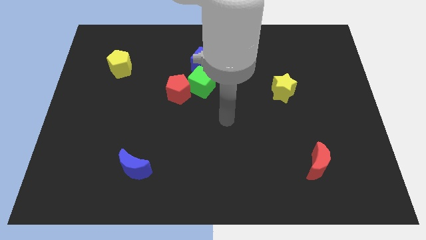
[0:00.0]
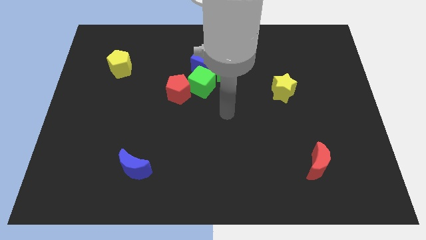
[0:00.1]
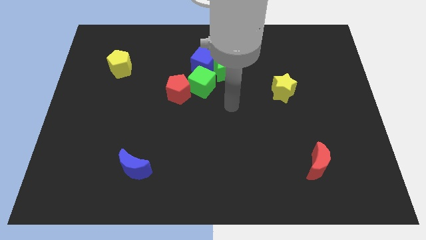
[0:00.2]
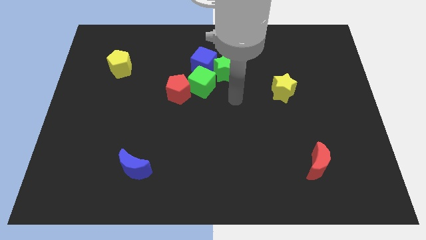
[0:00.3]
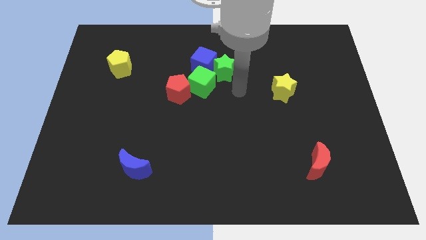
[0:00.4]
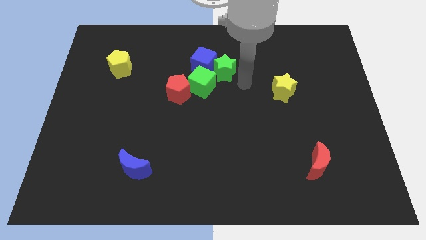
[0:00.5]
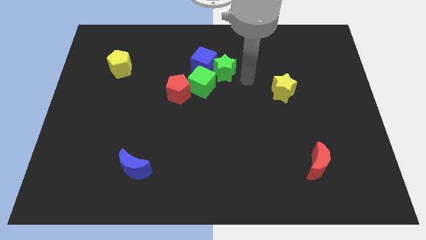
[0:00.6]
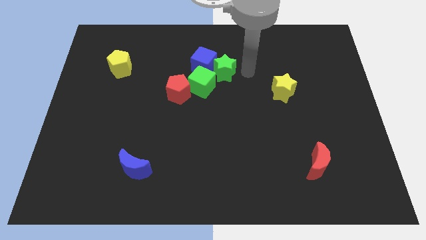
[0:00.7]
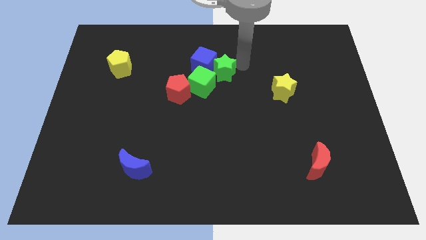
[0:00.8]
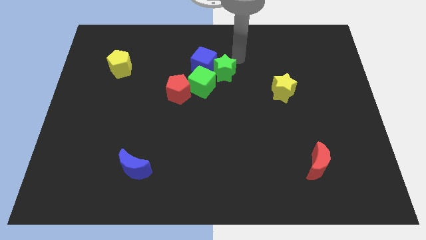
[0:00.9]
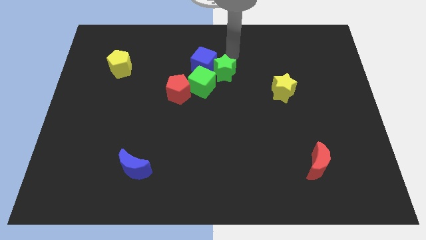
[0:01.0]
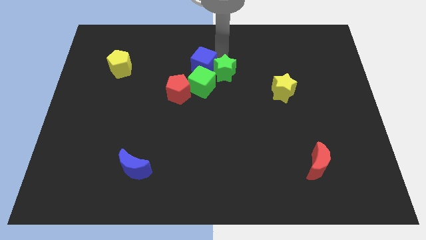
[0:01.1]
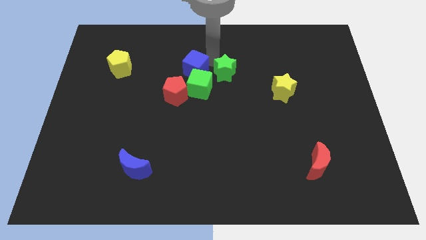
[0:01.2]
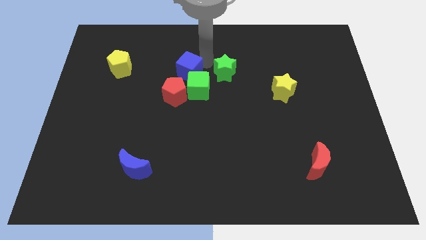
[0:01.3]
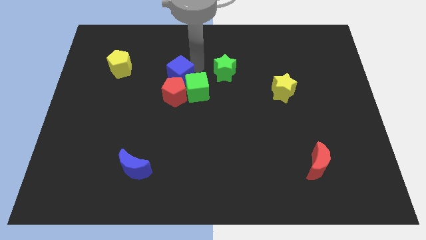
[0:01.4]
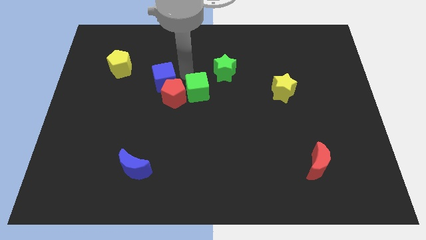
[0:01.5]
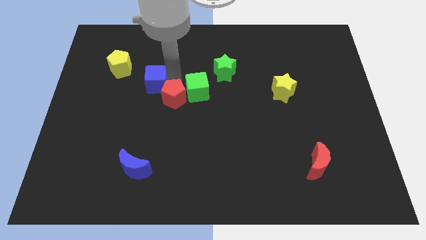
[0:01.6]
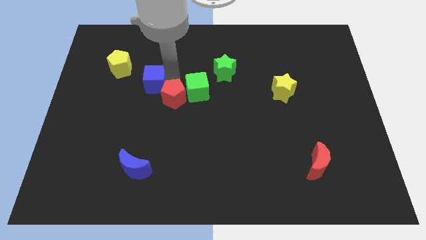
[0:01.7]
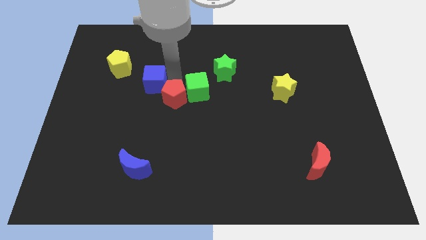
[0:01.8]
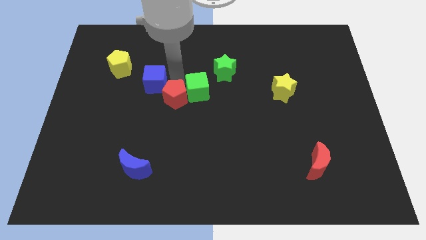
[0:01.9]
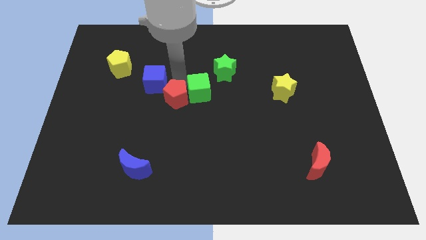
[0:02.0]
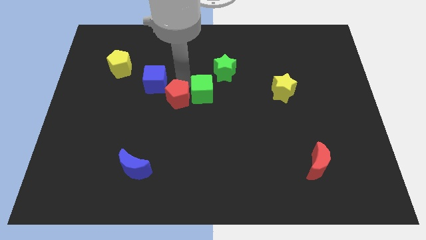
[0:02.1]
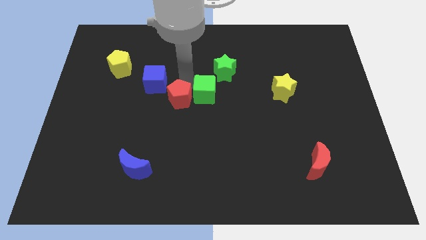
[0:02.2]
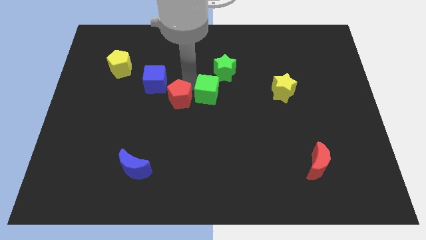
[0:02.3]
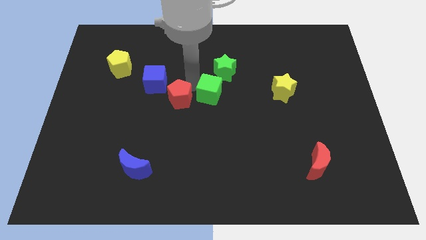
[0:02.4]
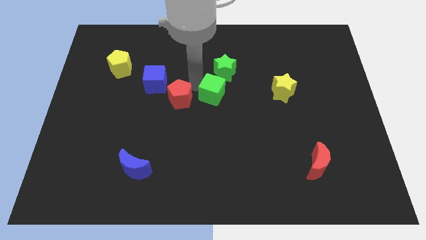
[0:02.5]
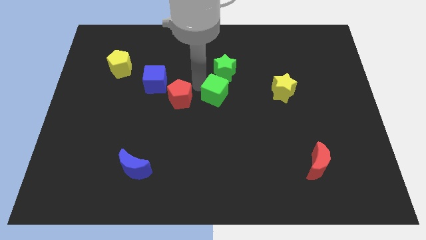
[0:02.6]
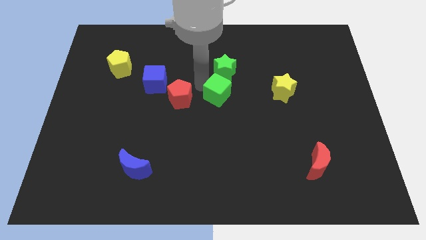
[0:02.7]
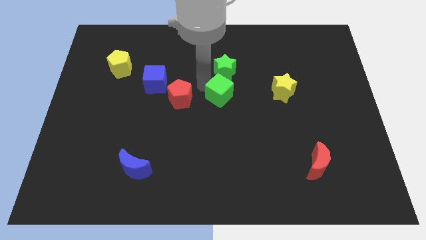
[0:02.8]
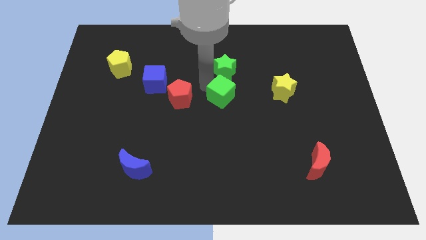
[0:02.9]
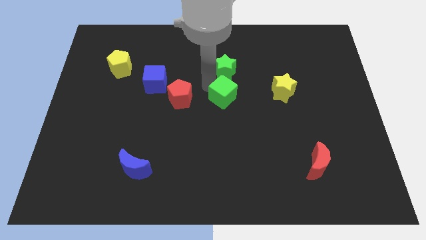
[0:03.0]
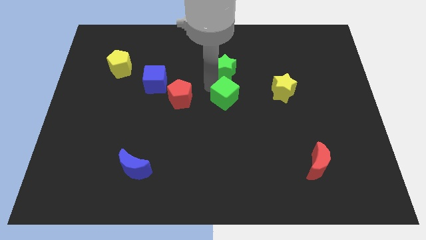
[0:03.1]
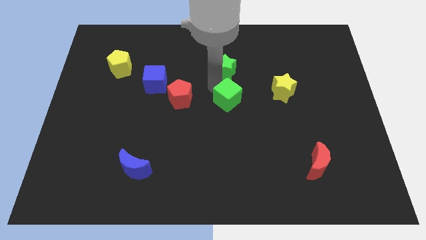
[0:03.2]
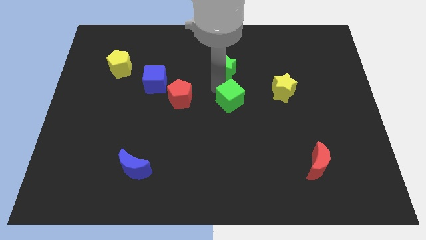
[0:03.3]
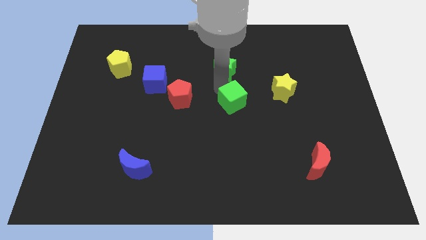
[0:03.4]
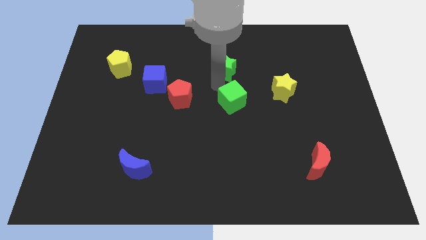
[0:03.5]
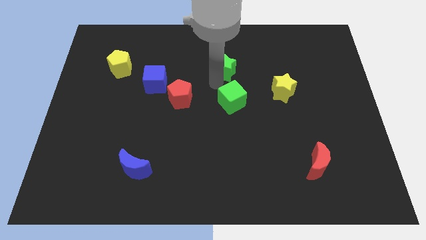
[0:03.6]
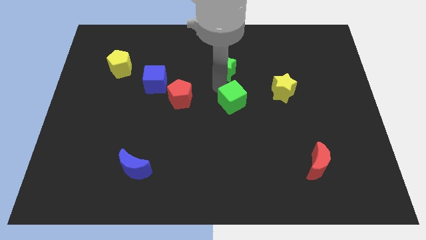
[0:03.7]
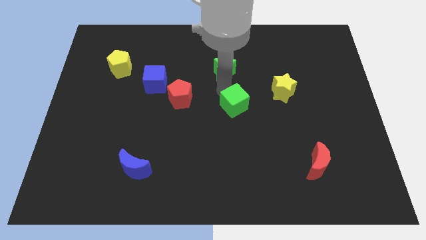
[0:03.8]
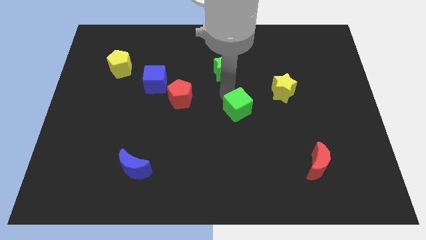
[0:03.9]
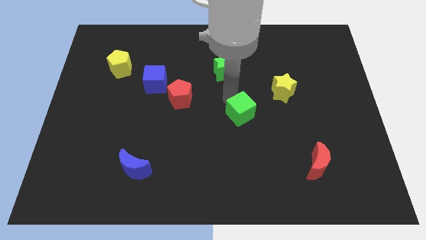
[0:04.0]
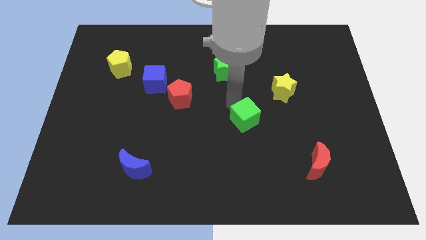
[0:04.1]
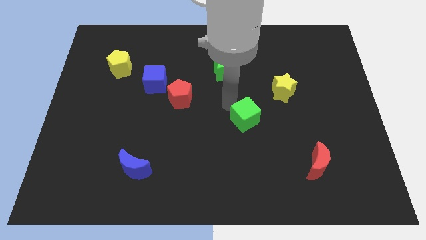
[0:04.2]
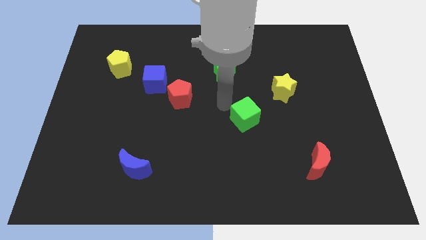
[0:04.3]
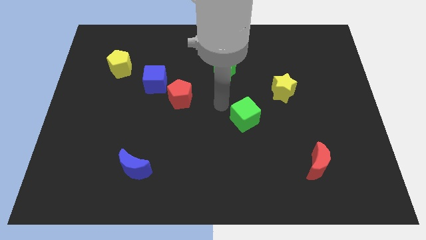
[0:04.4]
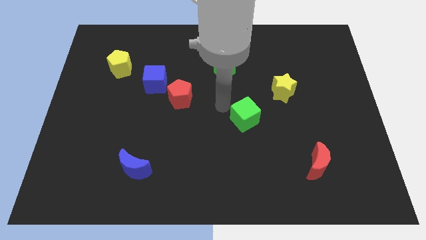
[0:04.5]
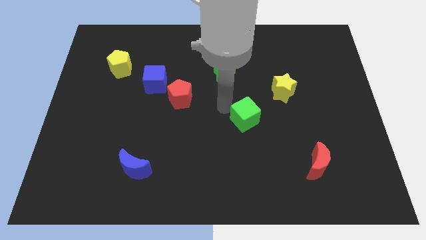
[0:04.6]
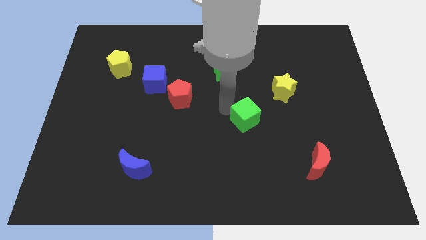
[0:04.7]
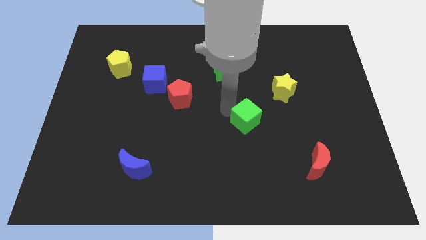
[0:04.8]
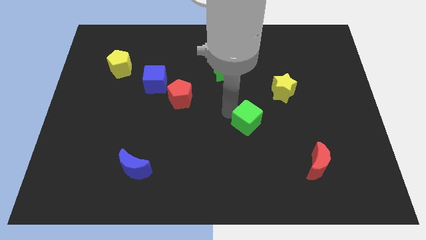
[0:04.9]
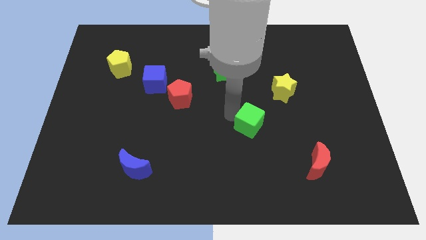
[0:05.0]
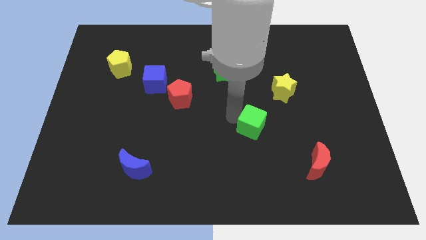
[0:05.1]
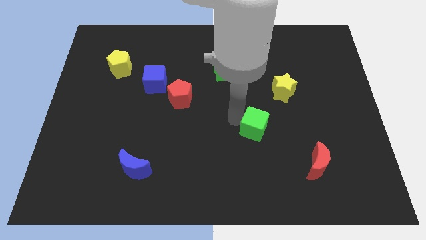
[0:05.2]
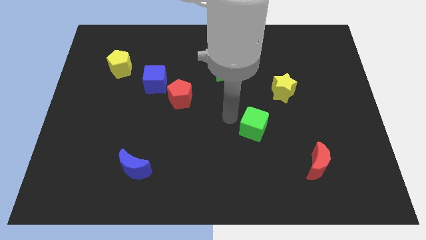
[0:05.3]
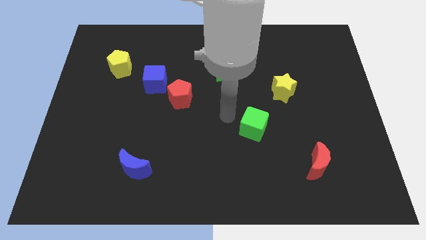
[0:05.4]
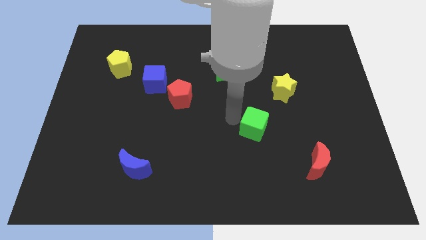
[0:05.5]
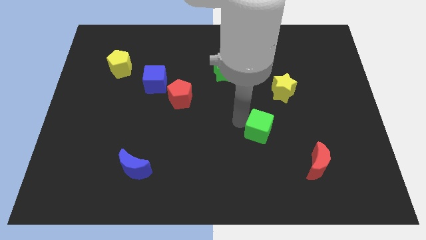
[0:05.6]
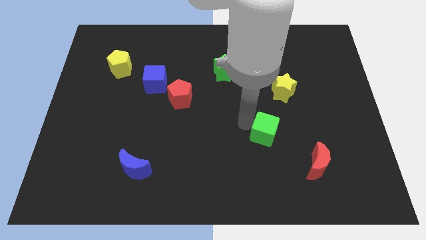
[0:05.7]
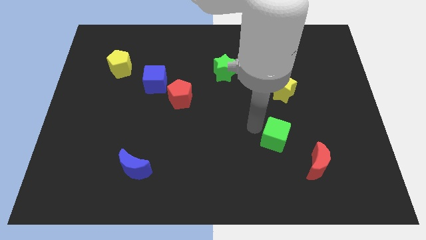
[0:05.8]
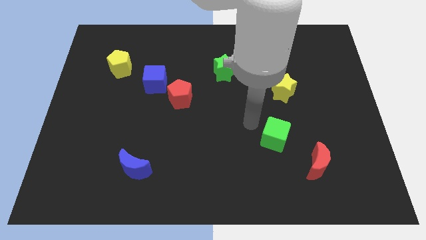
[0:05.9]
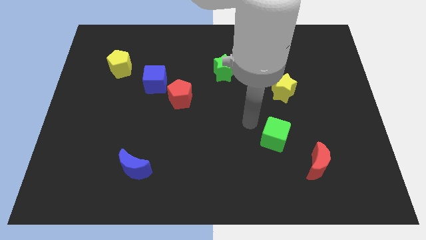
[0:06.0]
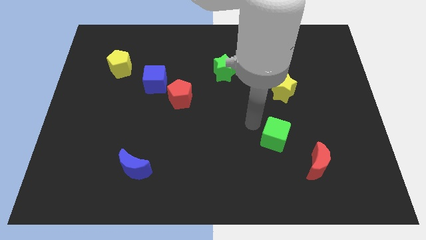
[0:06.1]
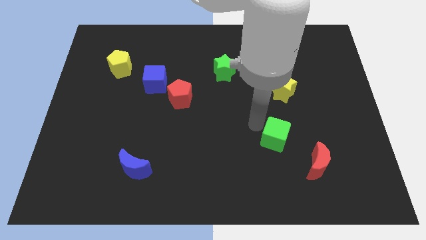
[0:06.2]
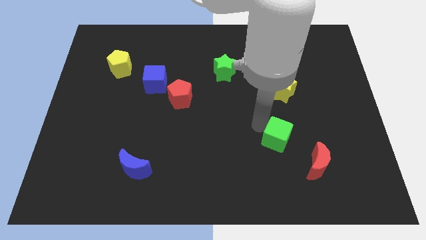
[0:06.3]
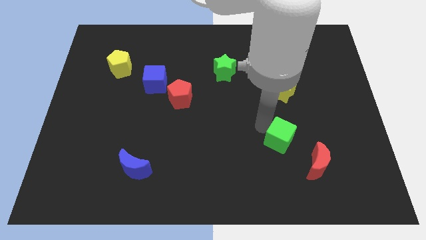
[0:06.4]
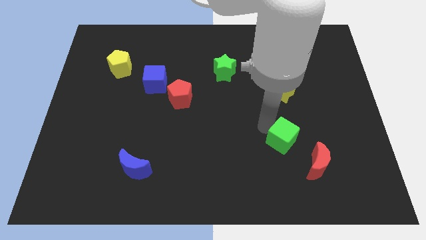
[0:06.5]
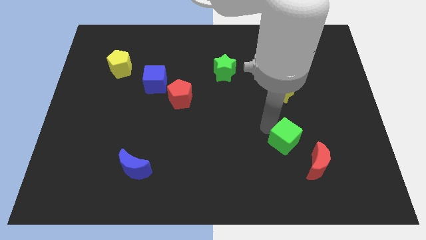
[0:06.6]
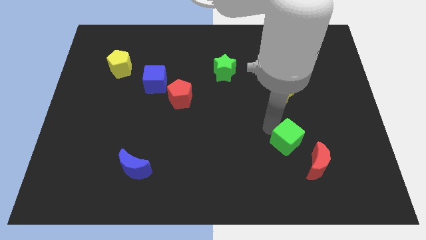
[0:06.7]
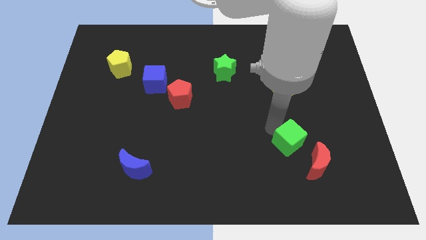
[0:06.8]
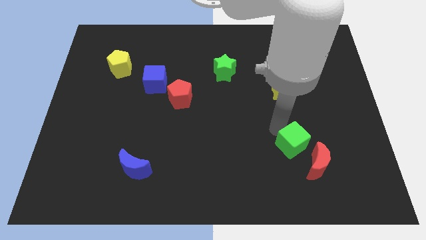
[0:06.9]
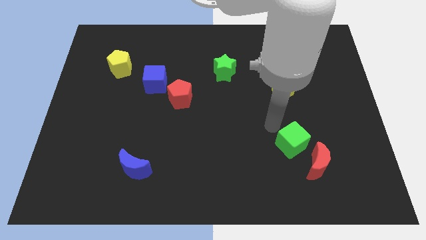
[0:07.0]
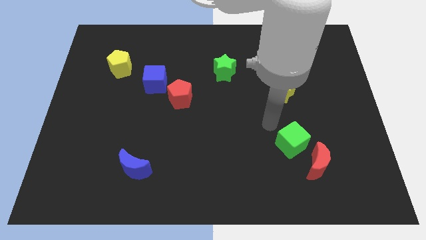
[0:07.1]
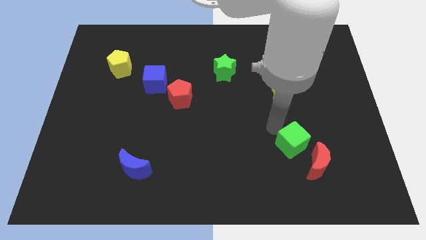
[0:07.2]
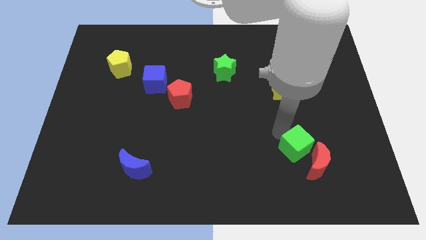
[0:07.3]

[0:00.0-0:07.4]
put the green cube next to the red moon
